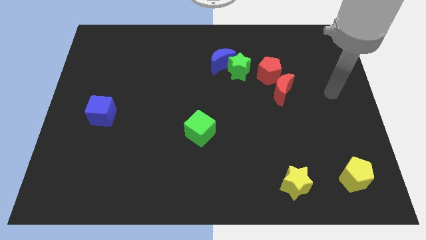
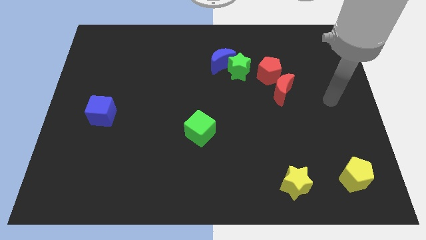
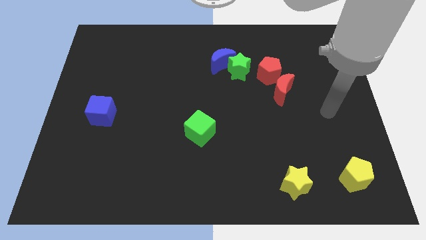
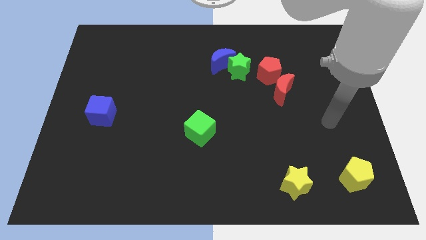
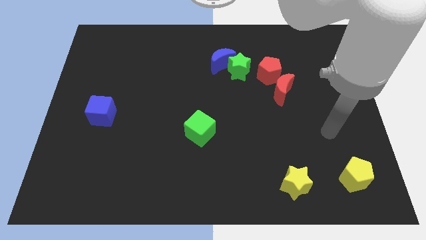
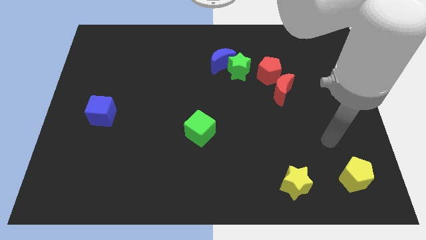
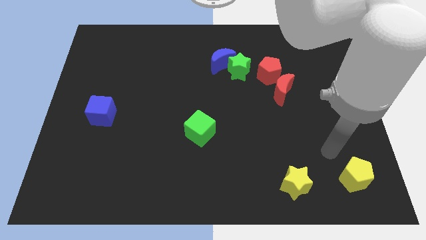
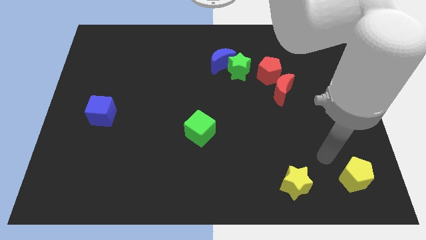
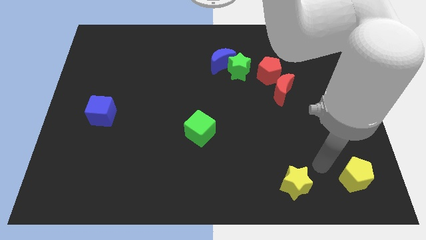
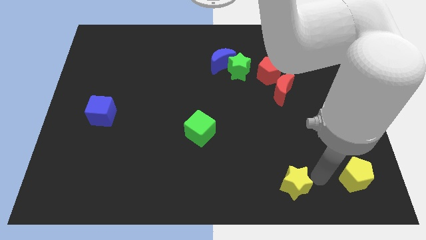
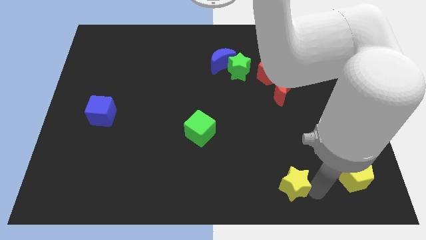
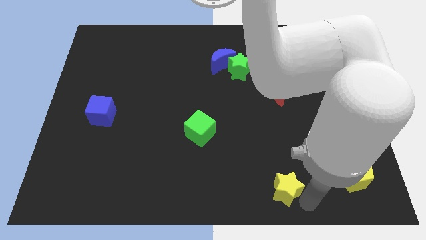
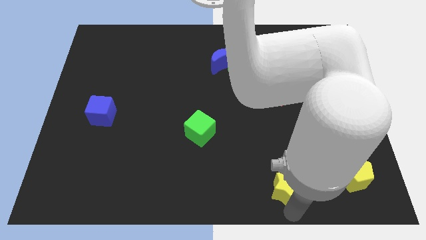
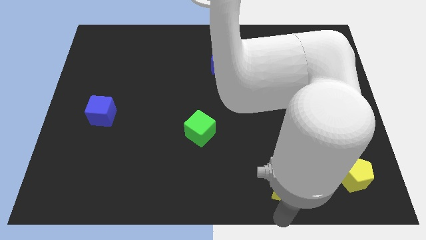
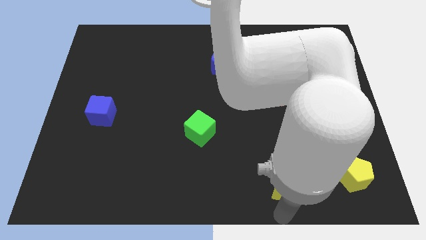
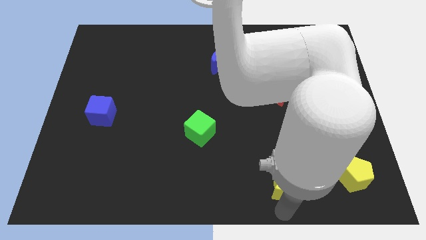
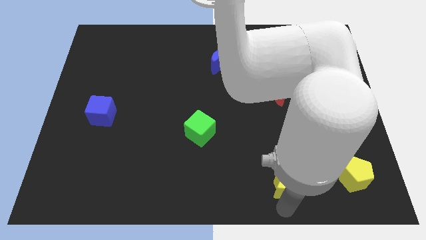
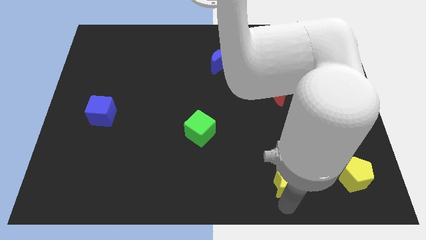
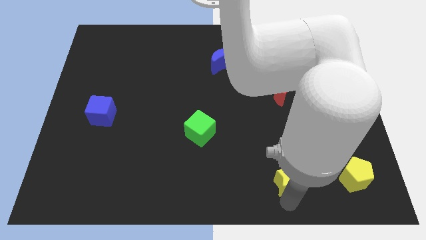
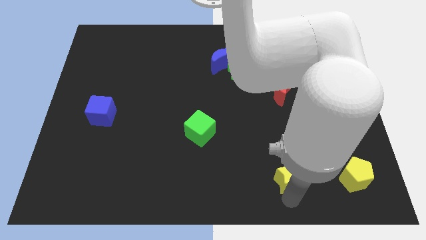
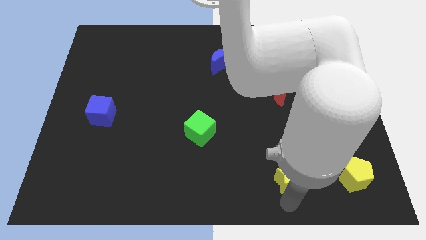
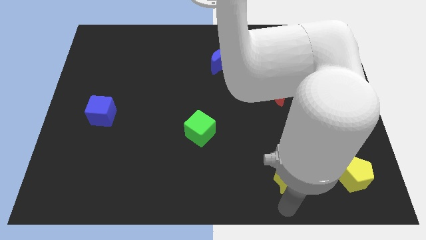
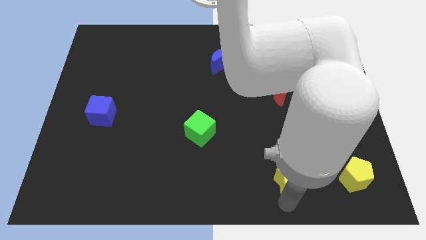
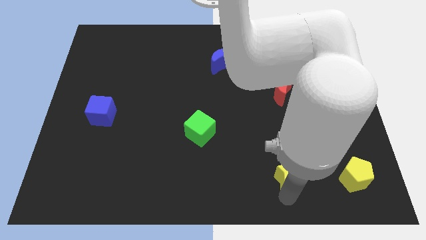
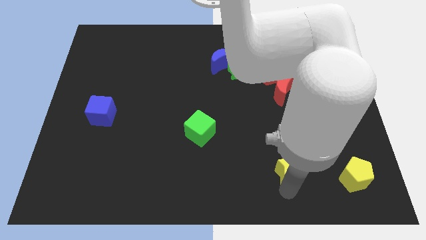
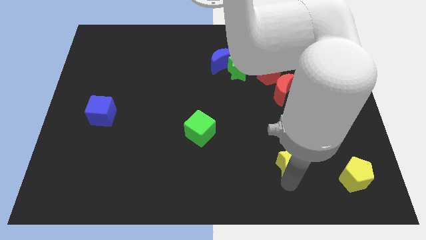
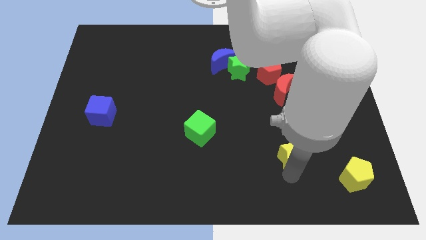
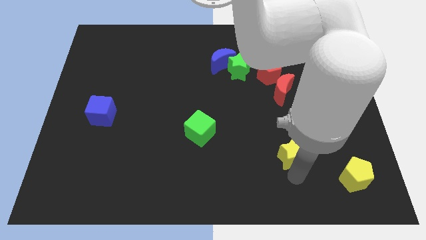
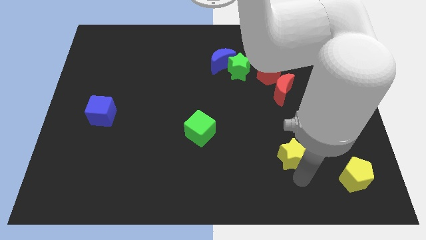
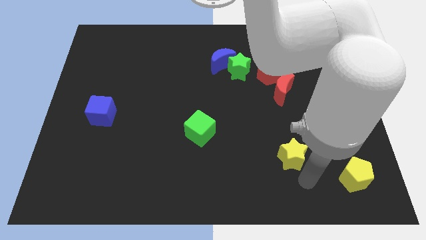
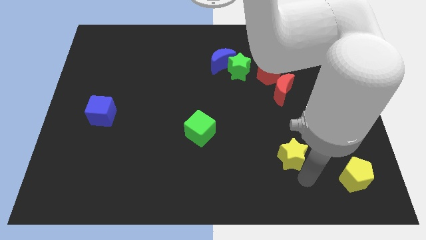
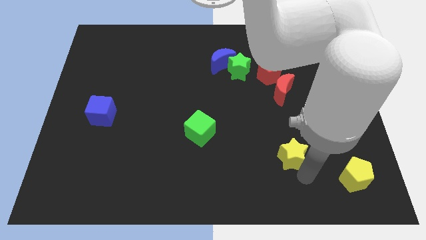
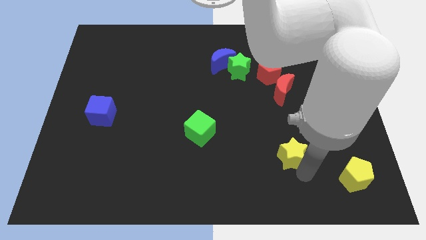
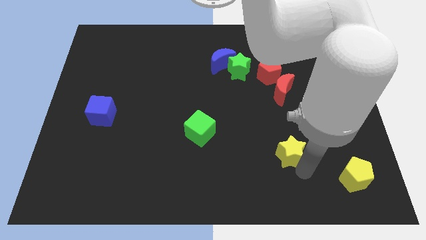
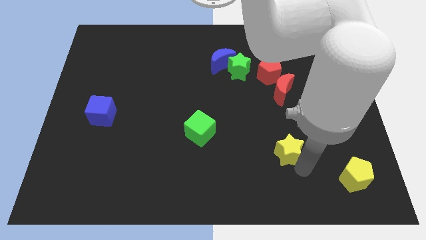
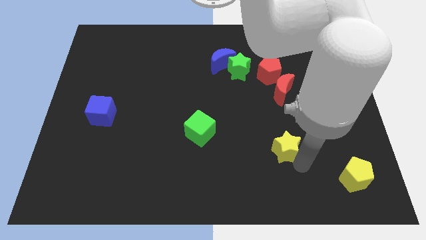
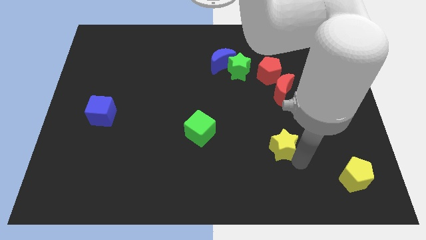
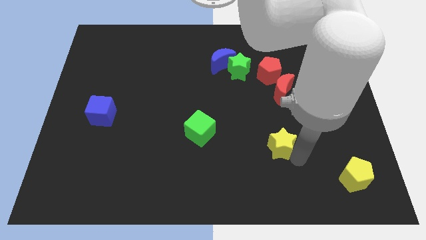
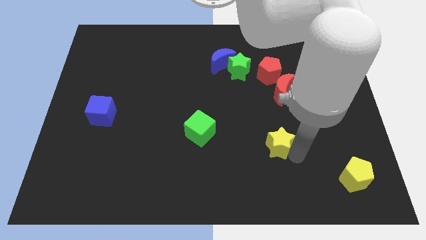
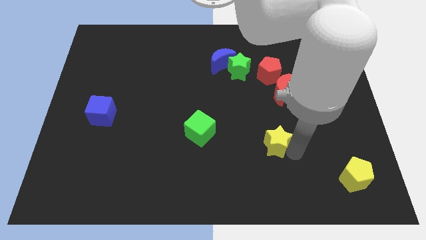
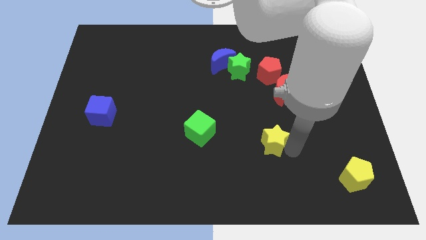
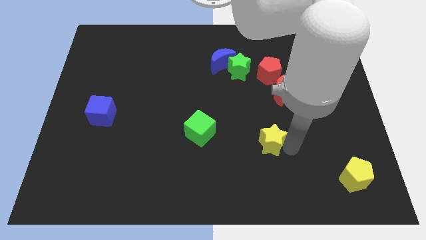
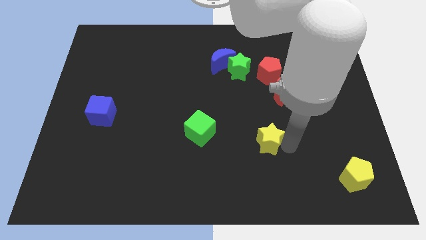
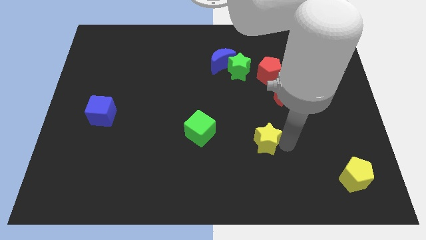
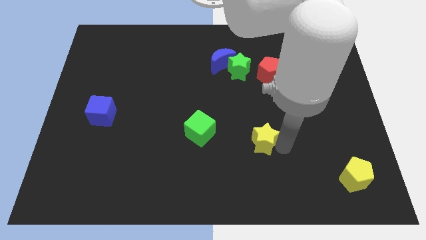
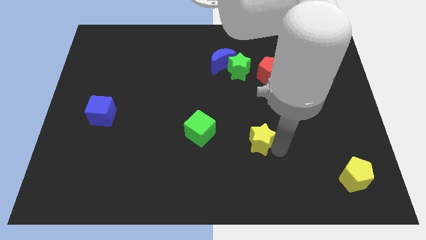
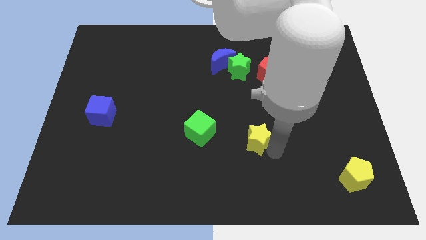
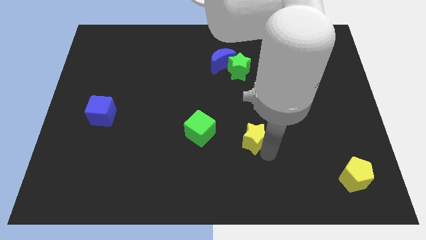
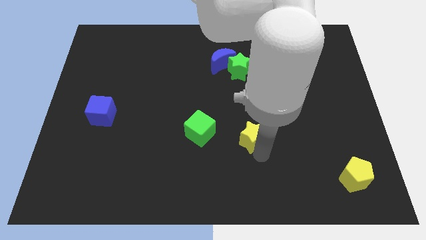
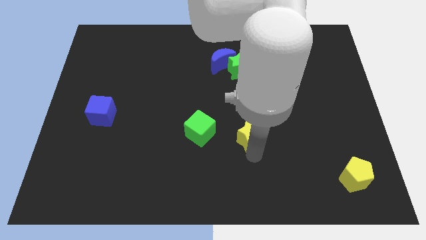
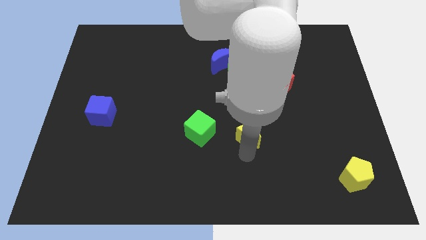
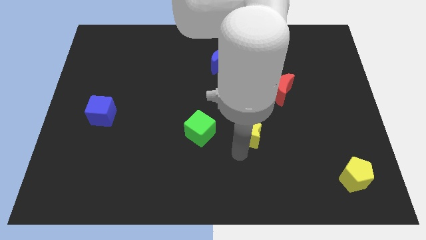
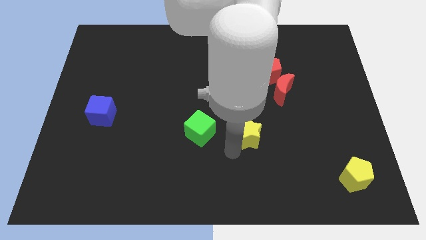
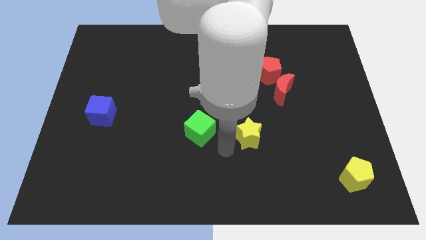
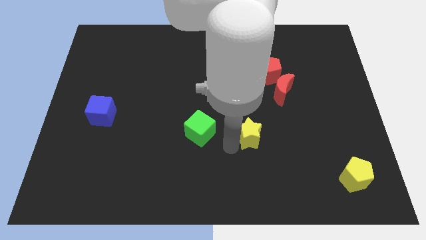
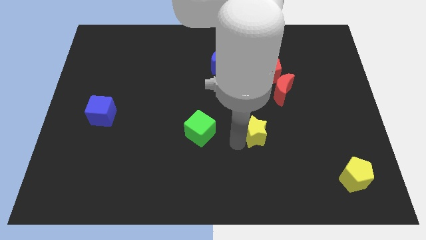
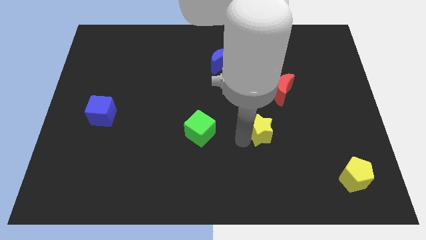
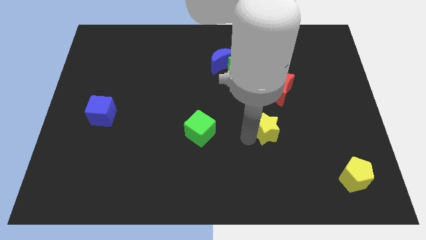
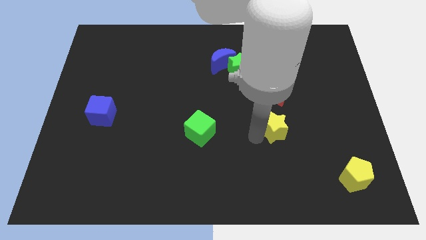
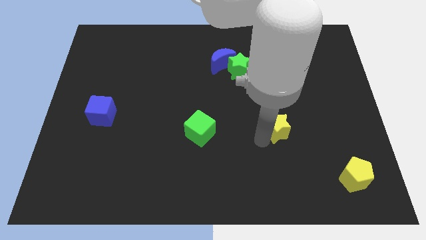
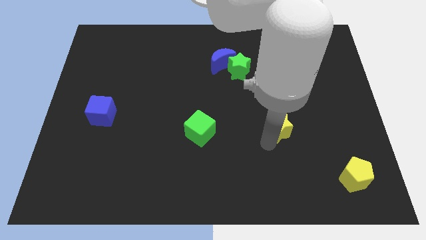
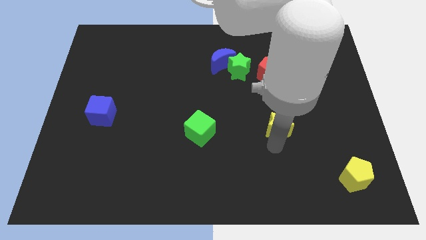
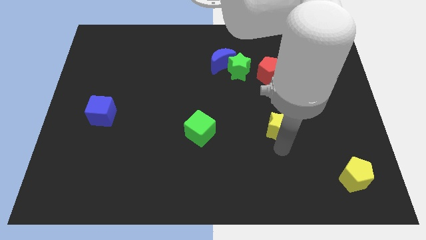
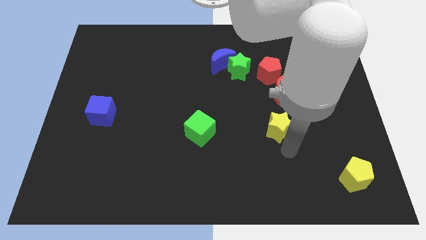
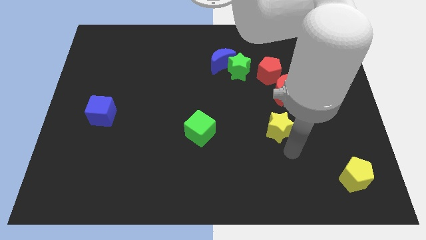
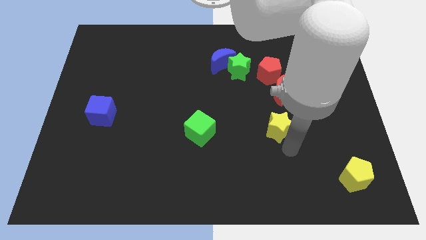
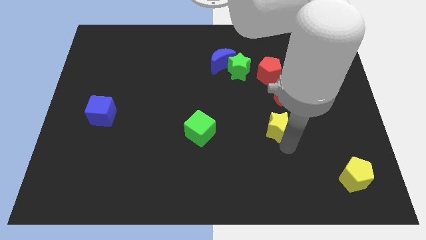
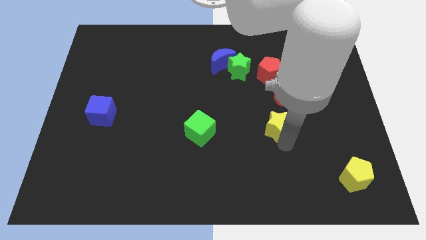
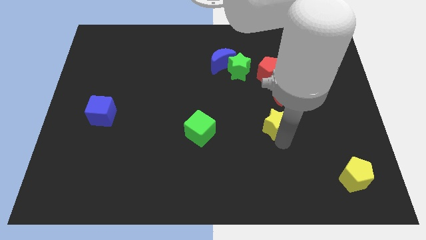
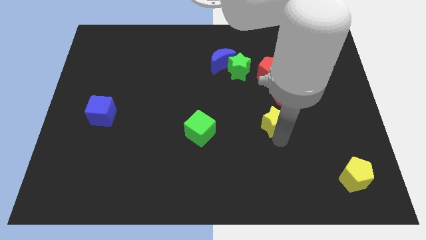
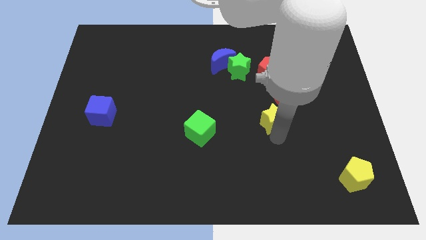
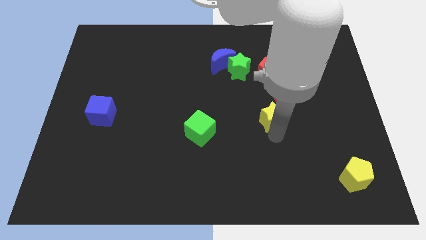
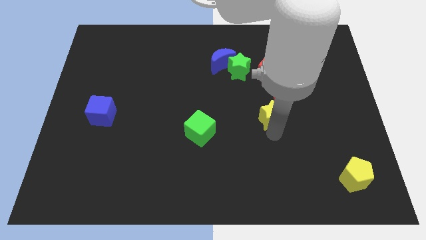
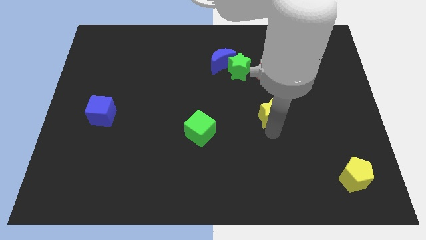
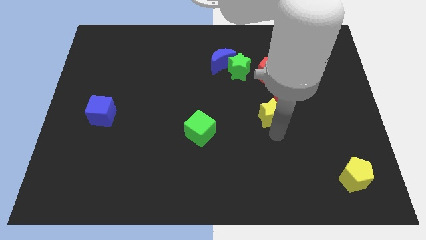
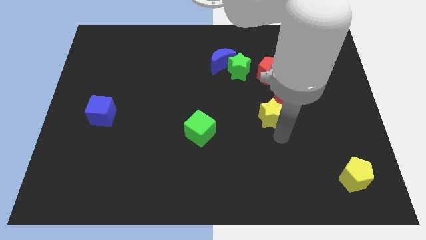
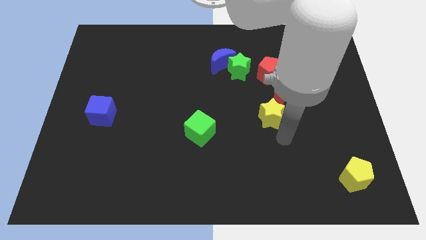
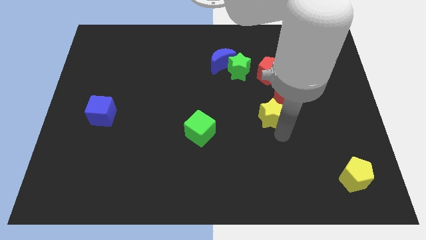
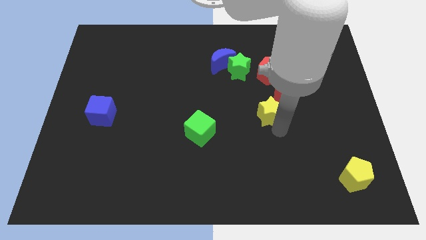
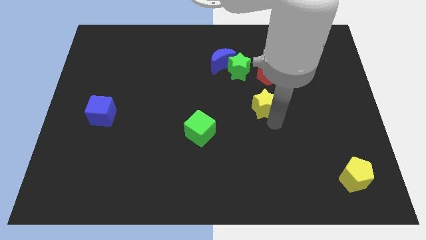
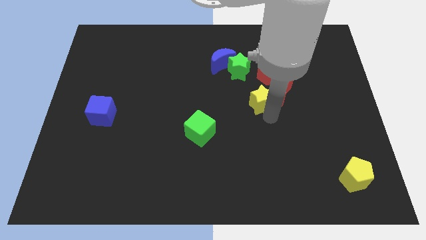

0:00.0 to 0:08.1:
put the yellow star to the bottom right of the green star
